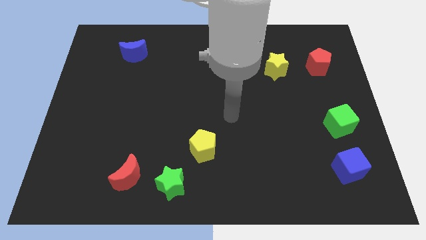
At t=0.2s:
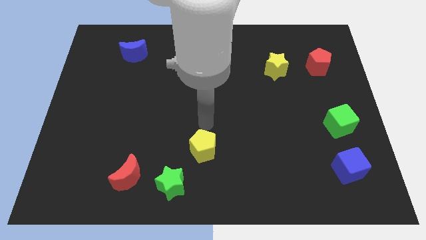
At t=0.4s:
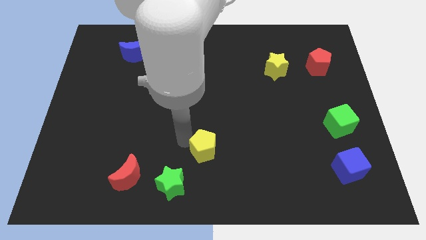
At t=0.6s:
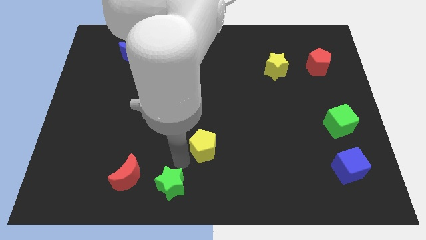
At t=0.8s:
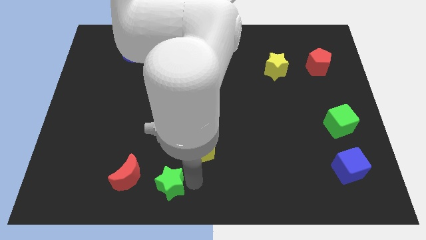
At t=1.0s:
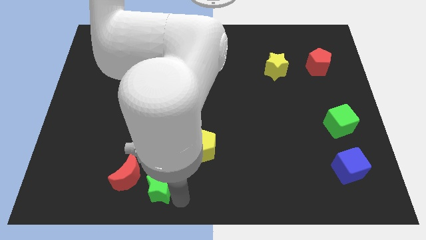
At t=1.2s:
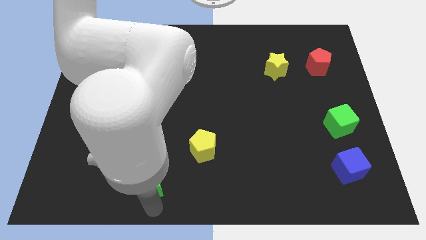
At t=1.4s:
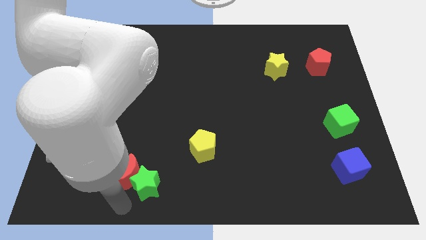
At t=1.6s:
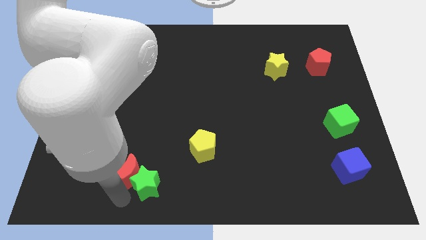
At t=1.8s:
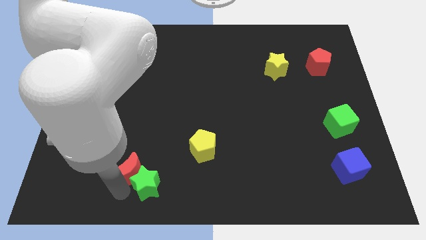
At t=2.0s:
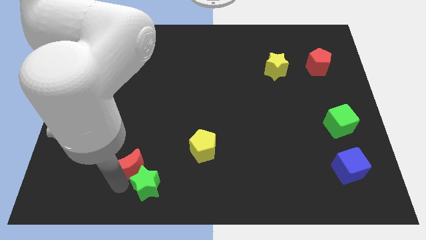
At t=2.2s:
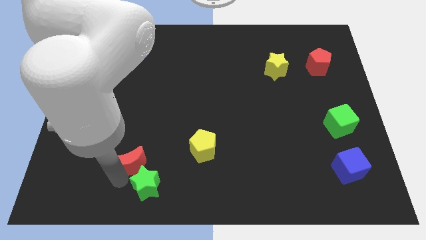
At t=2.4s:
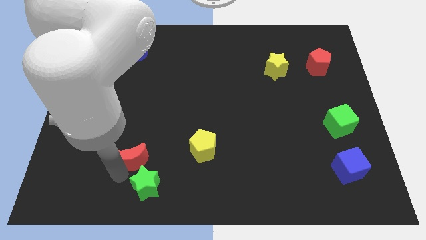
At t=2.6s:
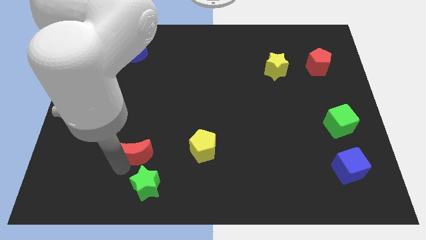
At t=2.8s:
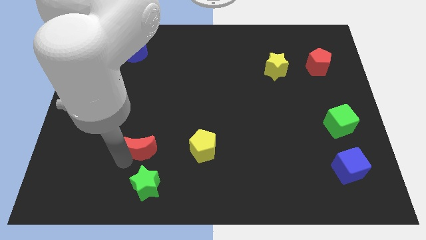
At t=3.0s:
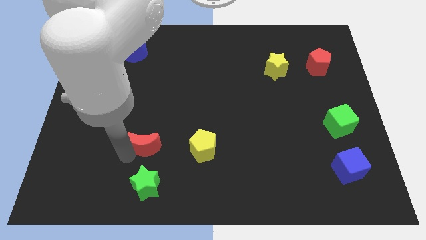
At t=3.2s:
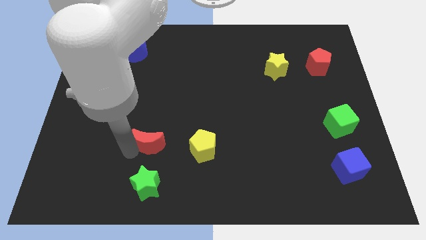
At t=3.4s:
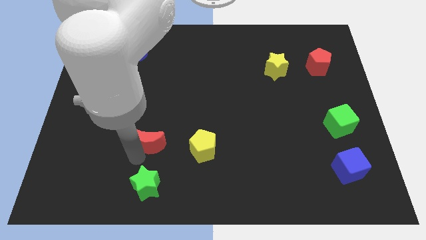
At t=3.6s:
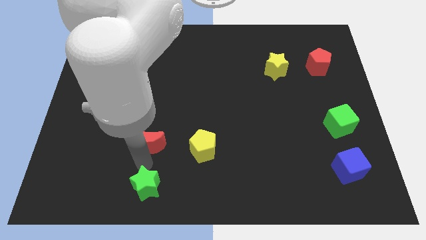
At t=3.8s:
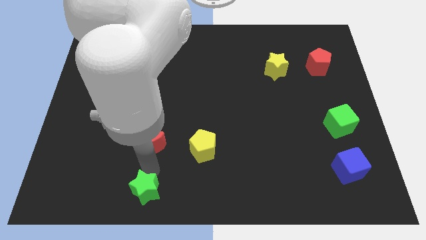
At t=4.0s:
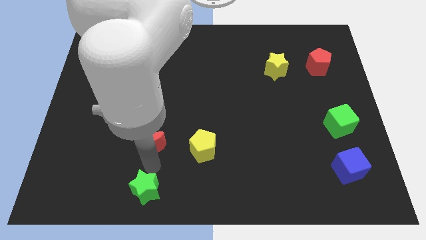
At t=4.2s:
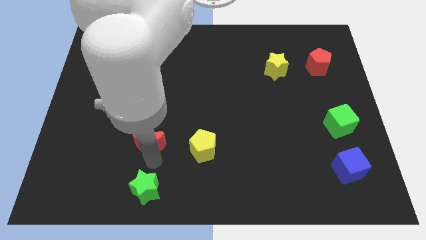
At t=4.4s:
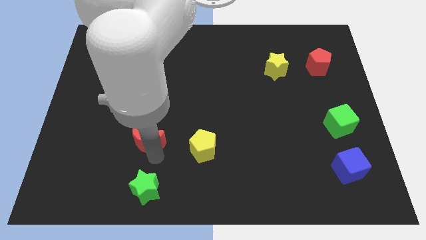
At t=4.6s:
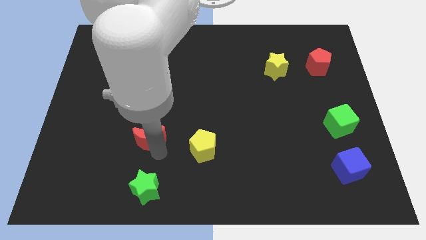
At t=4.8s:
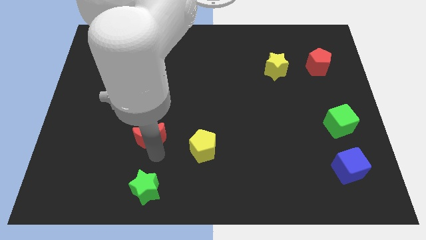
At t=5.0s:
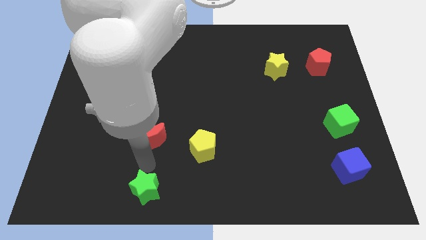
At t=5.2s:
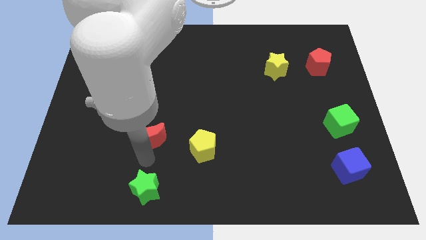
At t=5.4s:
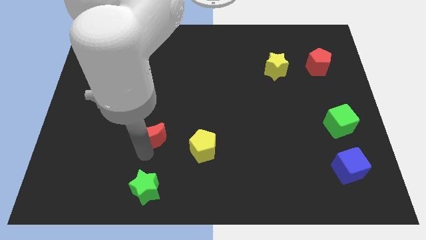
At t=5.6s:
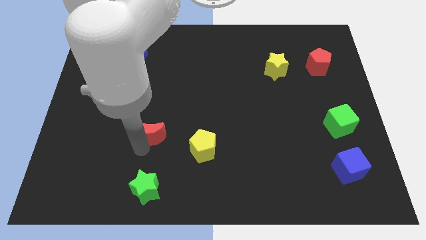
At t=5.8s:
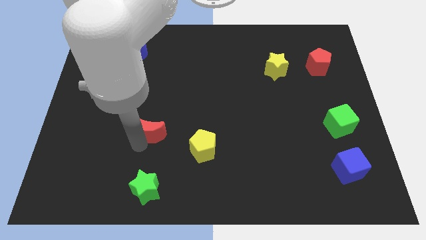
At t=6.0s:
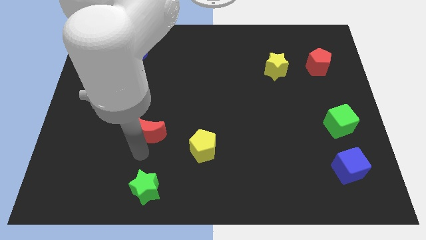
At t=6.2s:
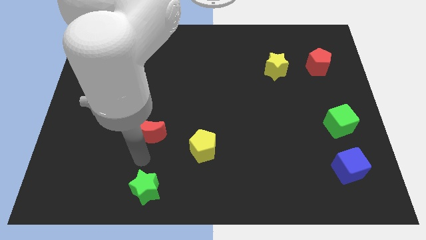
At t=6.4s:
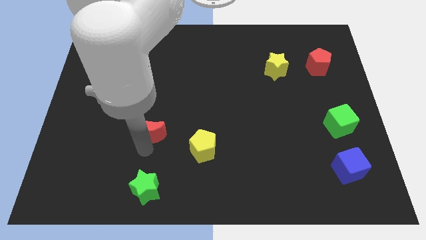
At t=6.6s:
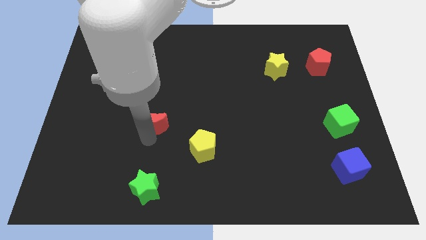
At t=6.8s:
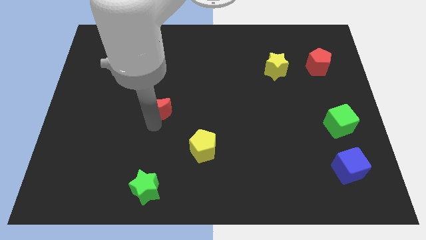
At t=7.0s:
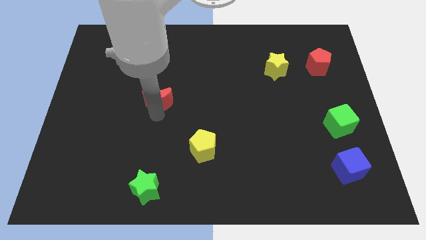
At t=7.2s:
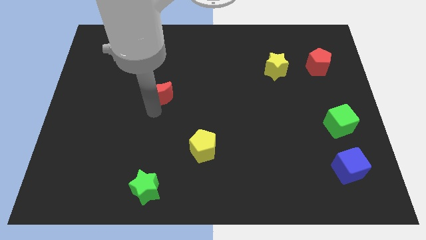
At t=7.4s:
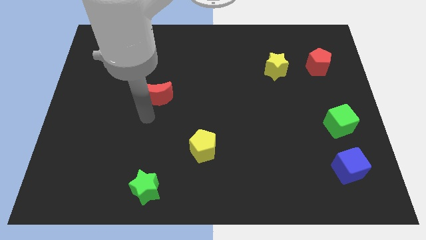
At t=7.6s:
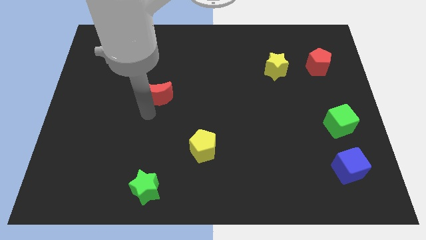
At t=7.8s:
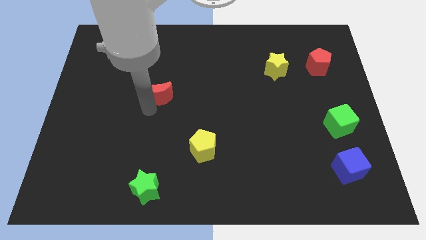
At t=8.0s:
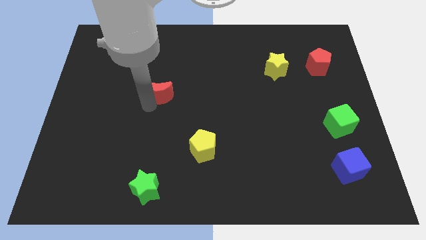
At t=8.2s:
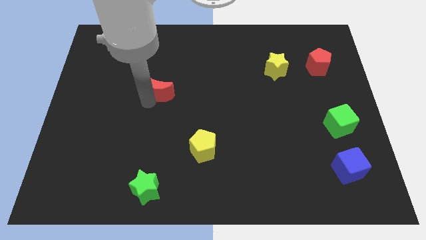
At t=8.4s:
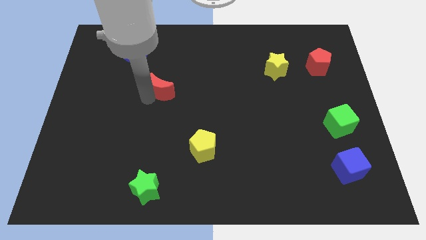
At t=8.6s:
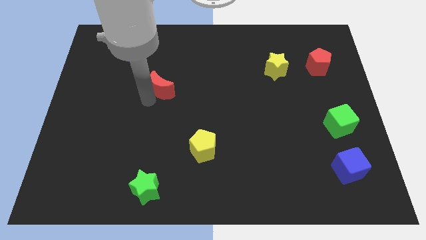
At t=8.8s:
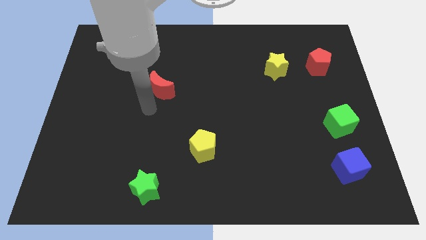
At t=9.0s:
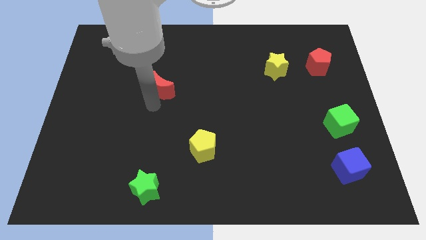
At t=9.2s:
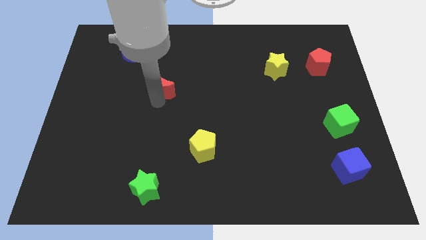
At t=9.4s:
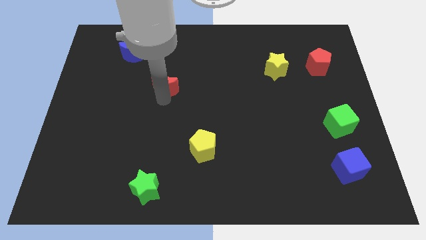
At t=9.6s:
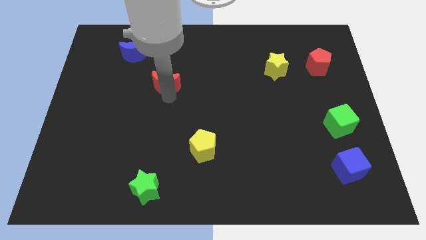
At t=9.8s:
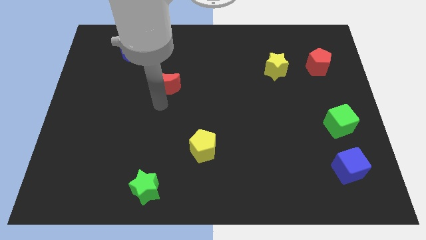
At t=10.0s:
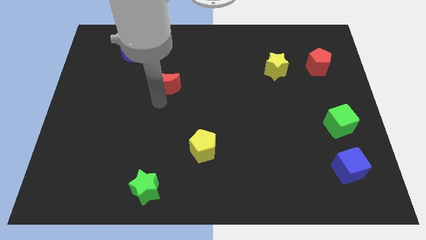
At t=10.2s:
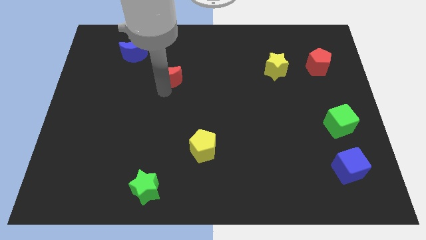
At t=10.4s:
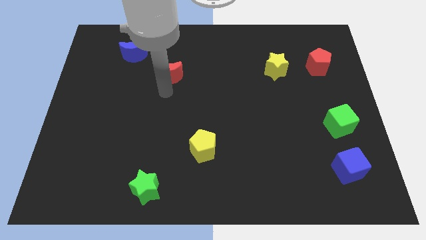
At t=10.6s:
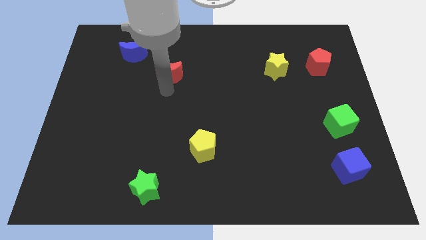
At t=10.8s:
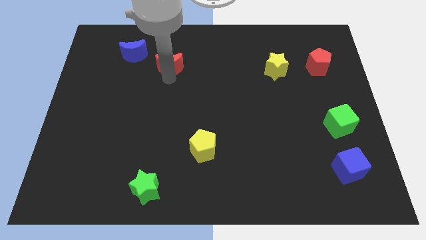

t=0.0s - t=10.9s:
slide the red moon to the right side of the blue moon

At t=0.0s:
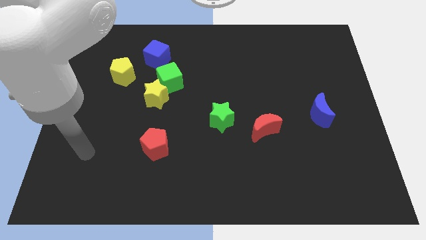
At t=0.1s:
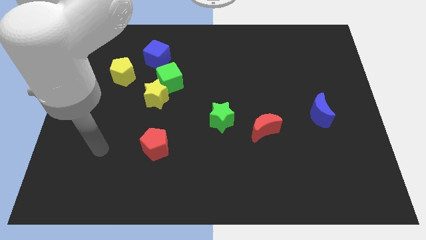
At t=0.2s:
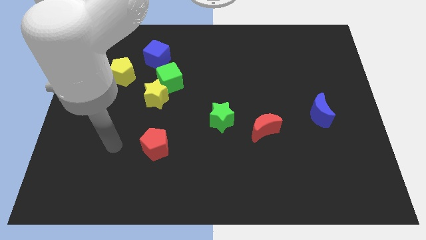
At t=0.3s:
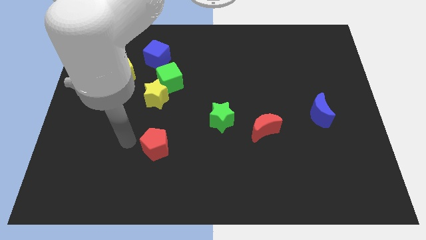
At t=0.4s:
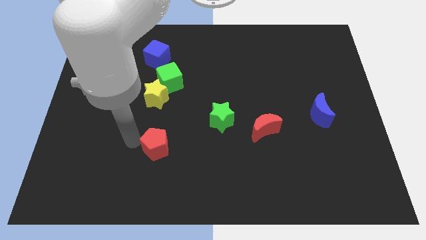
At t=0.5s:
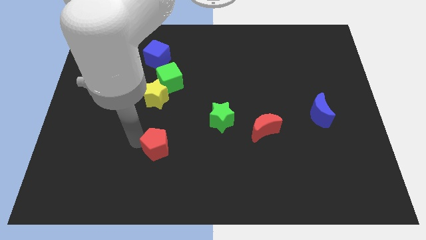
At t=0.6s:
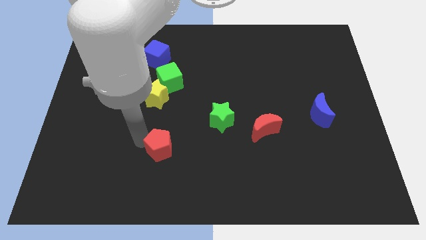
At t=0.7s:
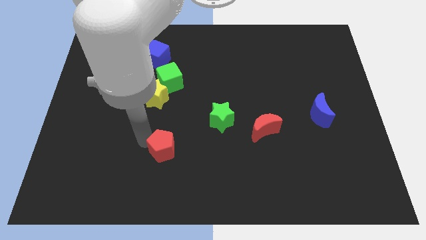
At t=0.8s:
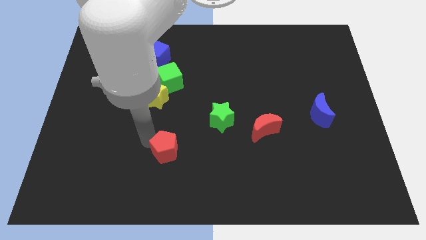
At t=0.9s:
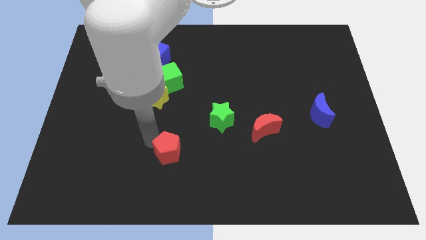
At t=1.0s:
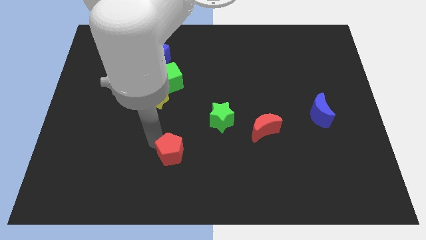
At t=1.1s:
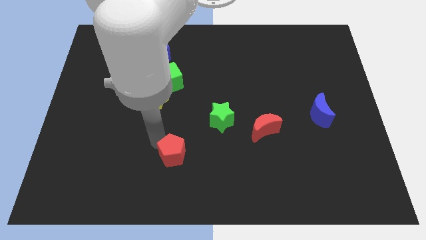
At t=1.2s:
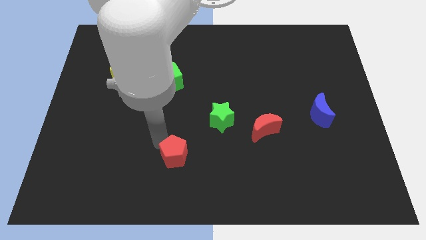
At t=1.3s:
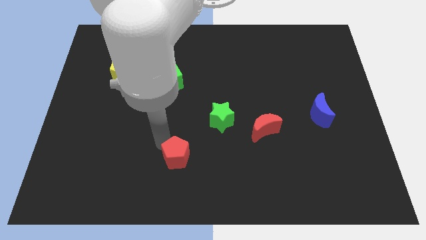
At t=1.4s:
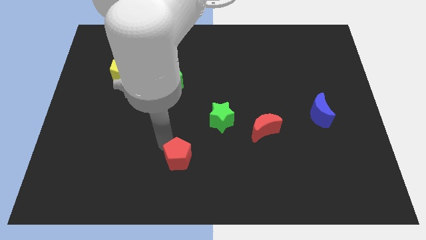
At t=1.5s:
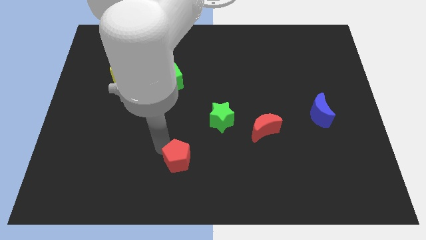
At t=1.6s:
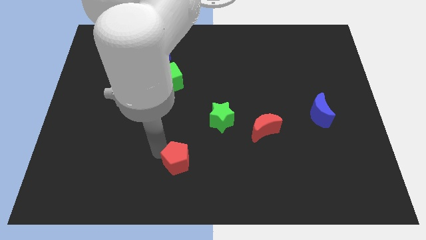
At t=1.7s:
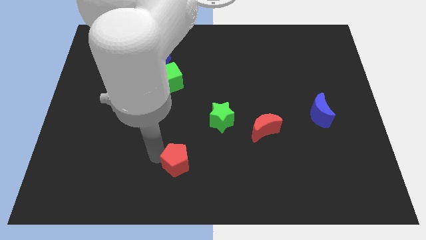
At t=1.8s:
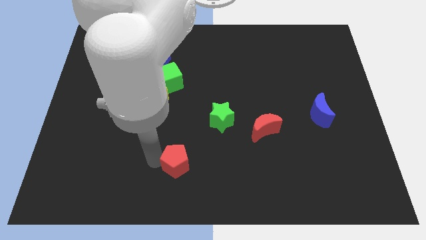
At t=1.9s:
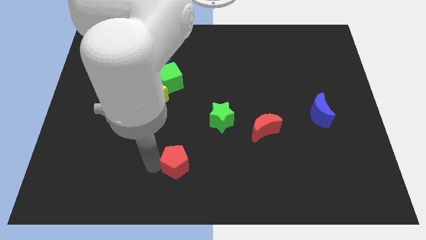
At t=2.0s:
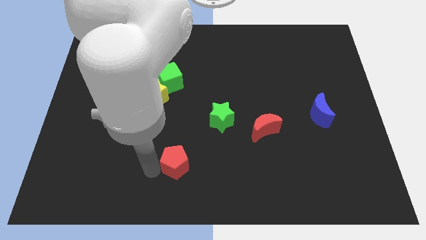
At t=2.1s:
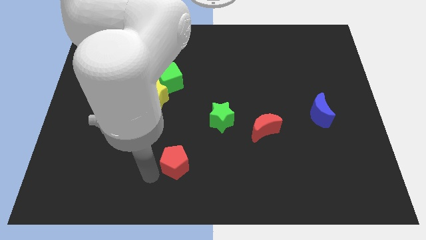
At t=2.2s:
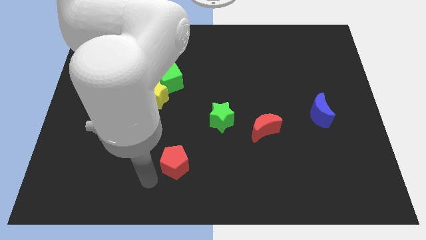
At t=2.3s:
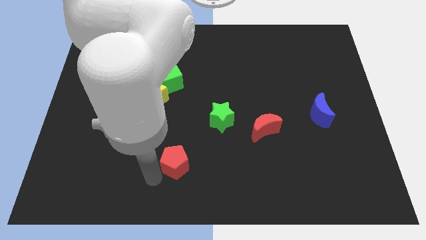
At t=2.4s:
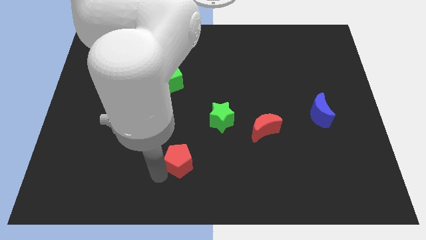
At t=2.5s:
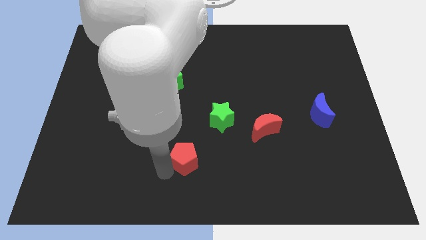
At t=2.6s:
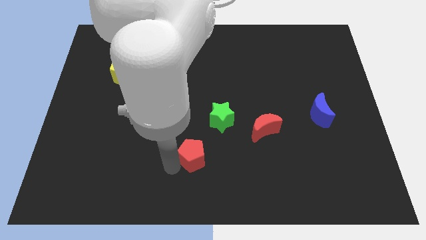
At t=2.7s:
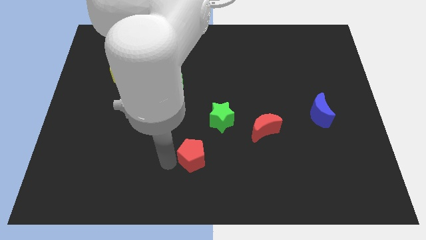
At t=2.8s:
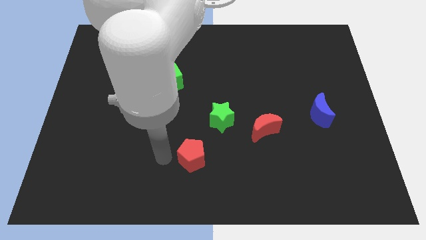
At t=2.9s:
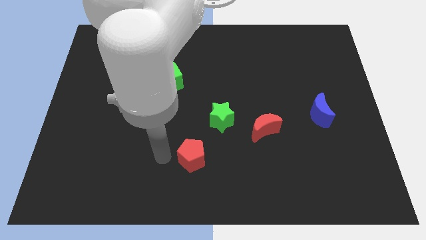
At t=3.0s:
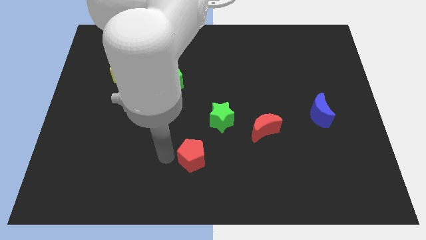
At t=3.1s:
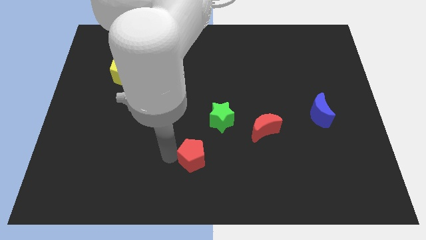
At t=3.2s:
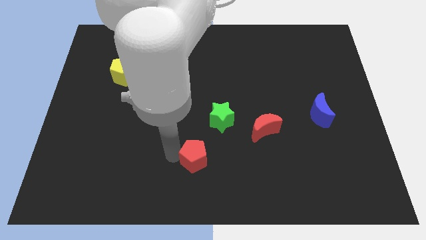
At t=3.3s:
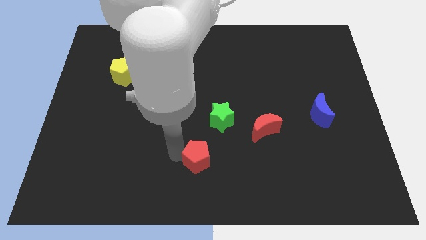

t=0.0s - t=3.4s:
push the red pentagon below the green star
